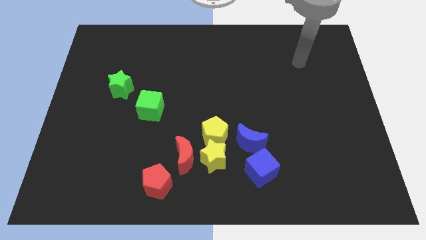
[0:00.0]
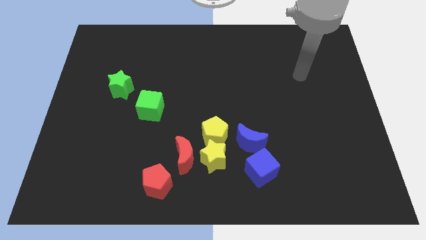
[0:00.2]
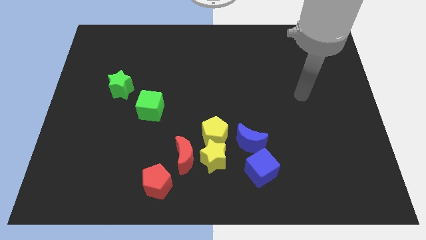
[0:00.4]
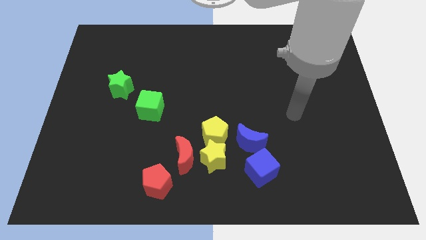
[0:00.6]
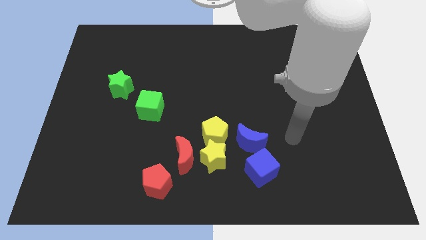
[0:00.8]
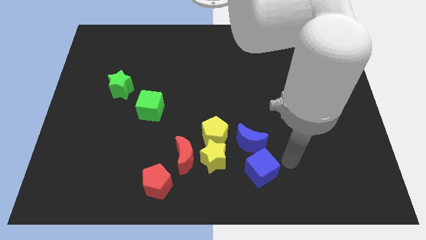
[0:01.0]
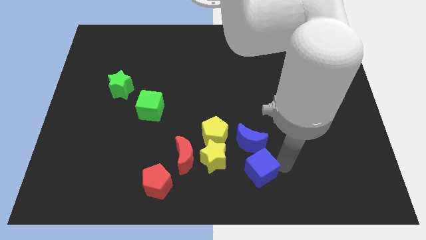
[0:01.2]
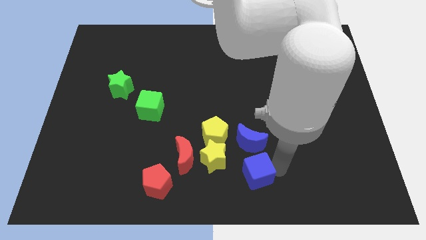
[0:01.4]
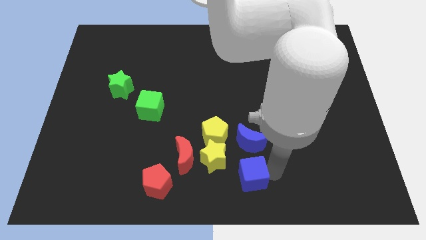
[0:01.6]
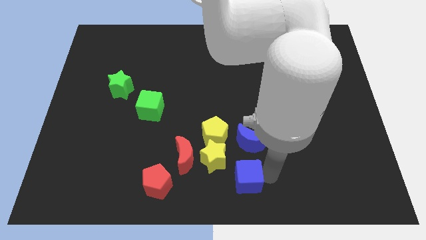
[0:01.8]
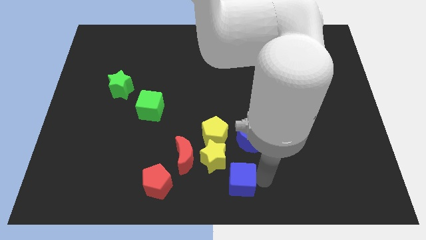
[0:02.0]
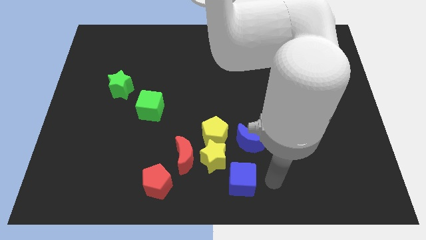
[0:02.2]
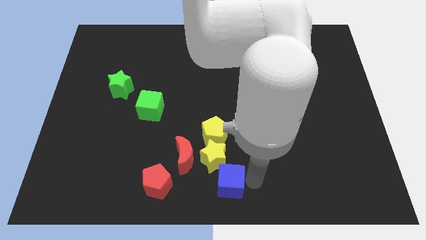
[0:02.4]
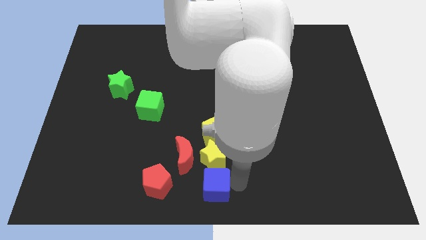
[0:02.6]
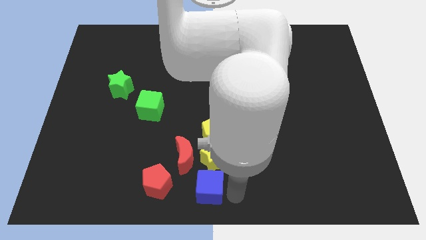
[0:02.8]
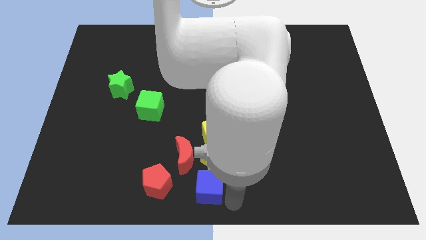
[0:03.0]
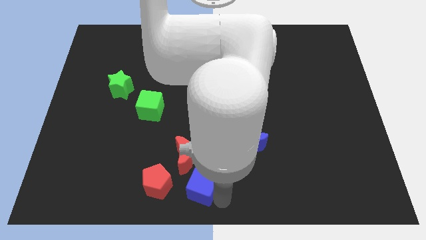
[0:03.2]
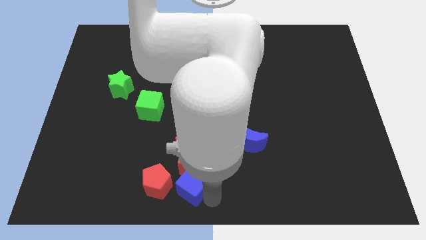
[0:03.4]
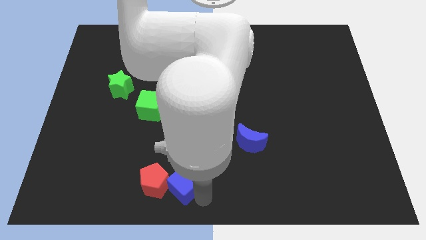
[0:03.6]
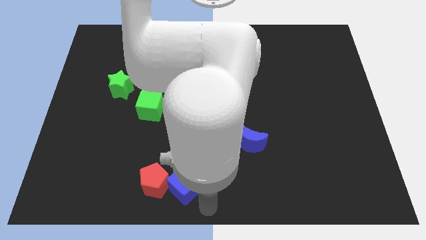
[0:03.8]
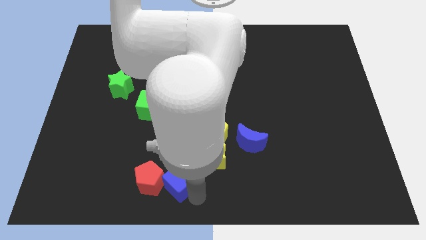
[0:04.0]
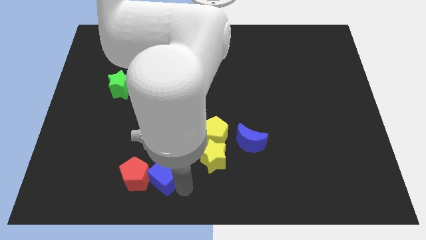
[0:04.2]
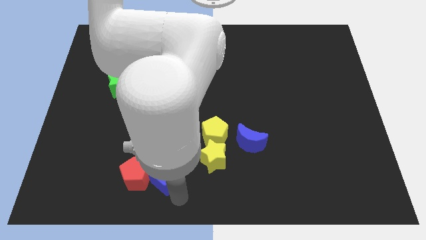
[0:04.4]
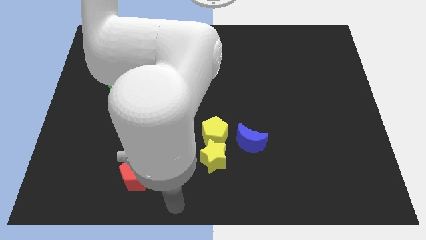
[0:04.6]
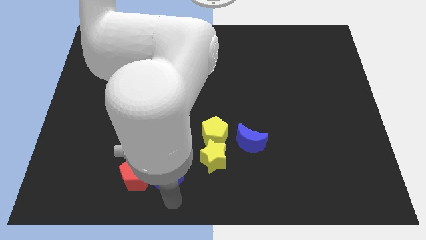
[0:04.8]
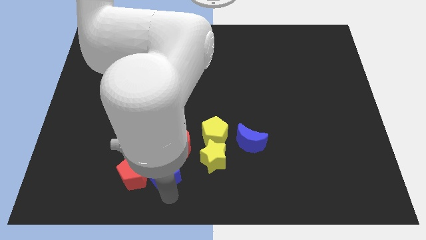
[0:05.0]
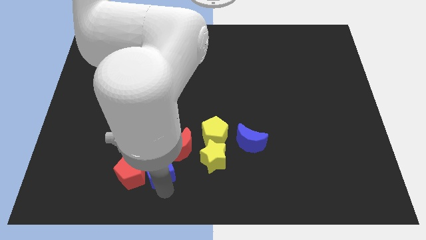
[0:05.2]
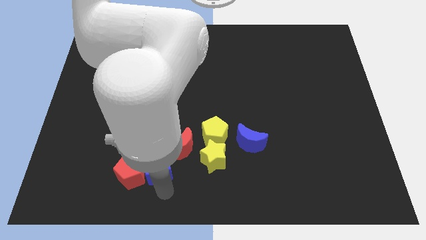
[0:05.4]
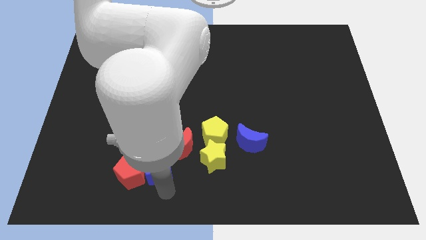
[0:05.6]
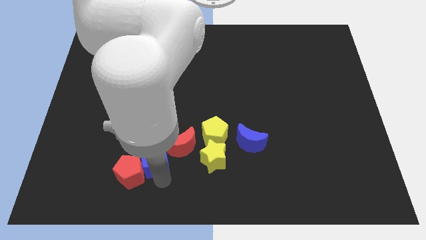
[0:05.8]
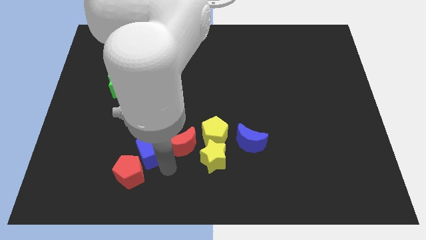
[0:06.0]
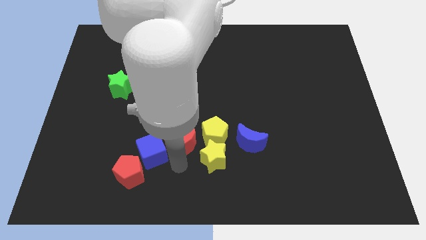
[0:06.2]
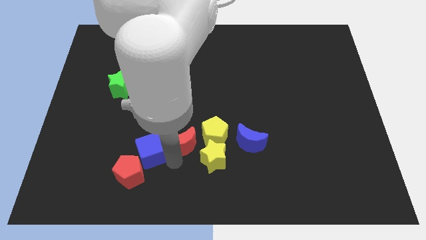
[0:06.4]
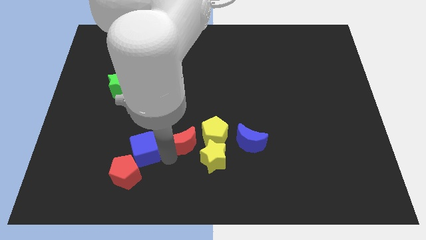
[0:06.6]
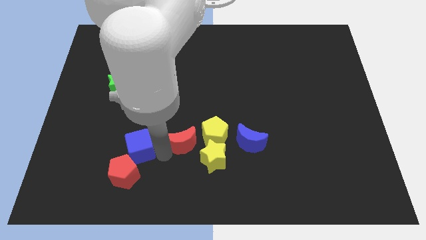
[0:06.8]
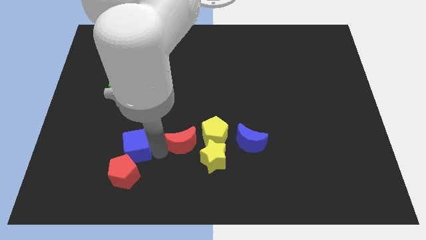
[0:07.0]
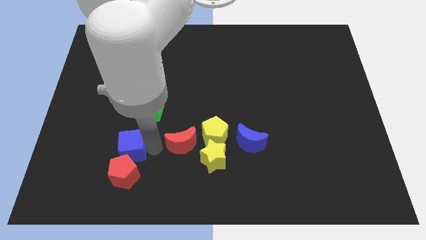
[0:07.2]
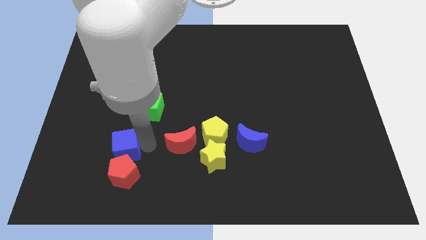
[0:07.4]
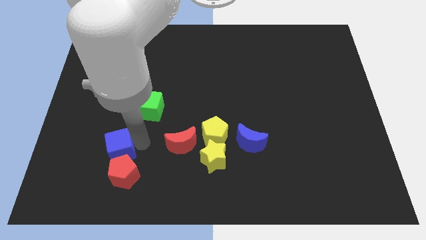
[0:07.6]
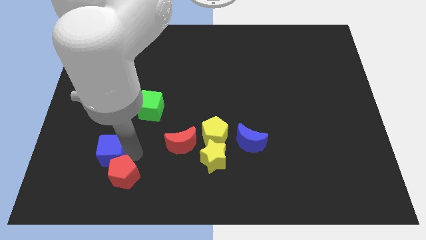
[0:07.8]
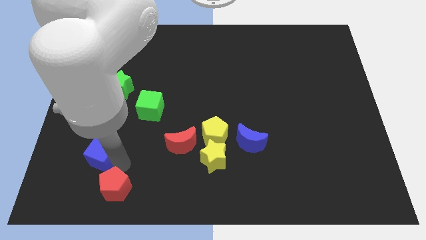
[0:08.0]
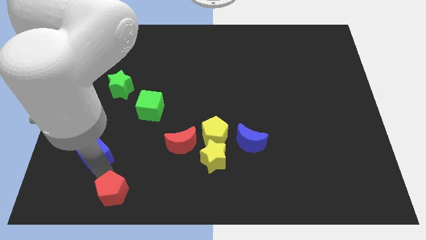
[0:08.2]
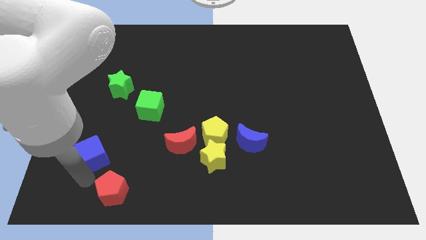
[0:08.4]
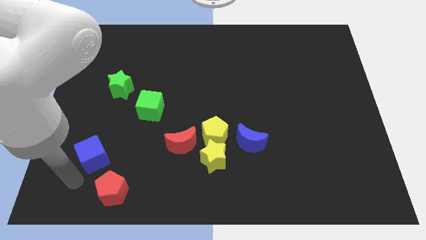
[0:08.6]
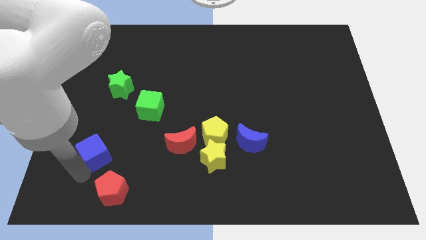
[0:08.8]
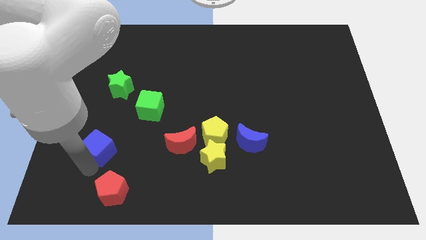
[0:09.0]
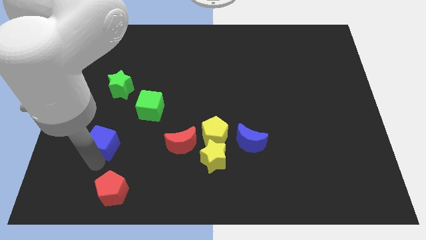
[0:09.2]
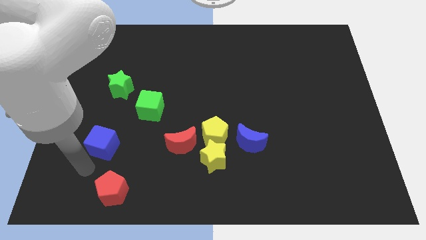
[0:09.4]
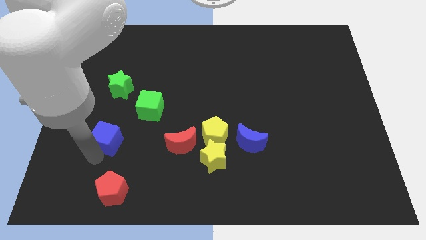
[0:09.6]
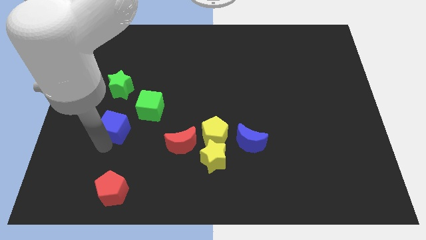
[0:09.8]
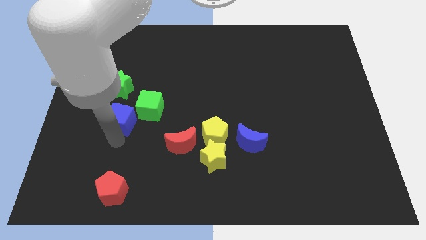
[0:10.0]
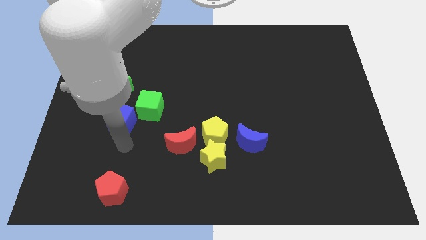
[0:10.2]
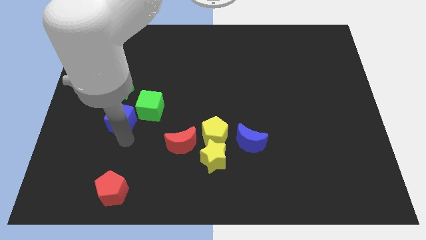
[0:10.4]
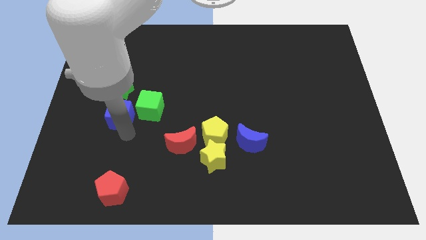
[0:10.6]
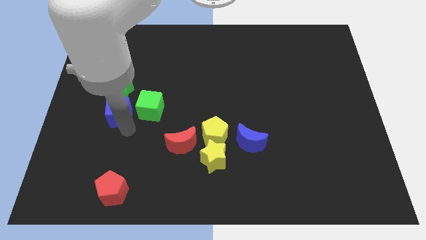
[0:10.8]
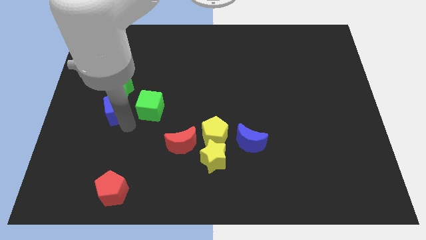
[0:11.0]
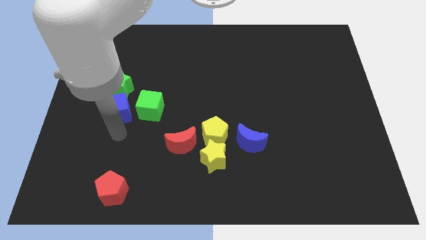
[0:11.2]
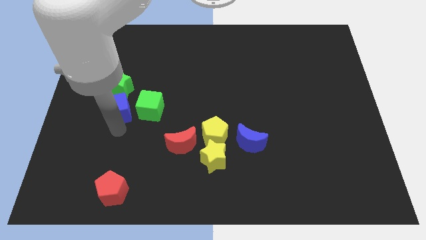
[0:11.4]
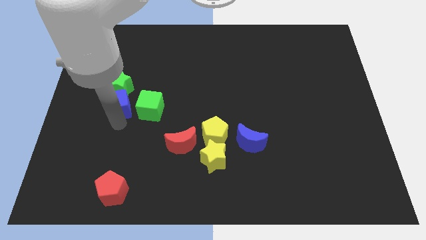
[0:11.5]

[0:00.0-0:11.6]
slide the blue cube close to the green star

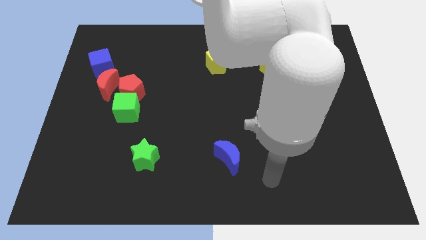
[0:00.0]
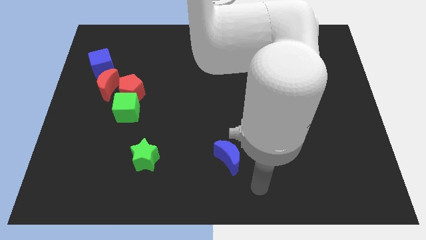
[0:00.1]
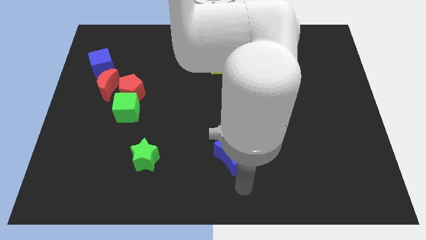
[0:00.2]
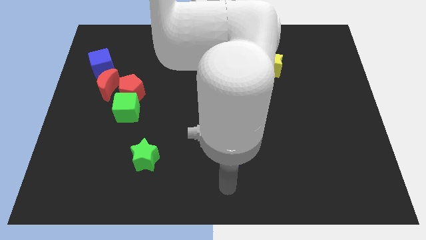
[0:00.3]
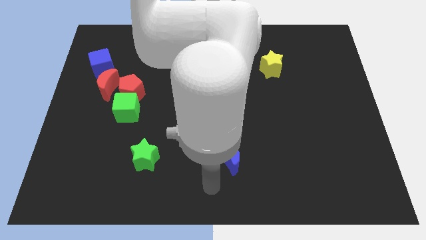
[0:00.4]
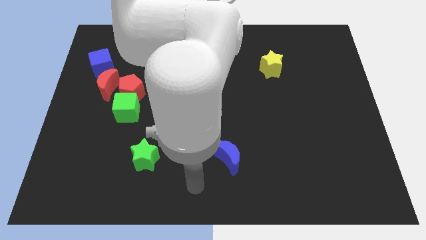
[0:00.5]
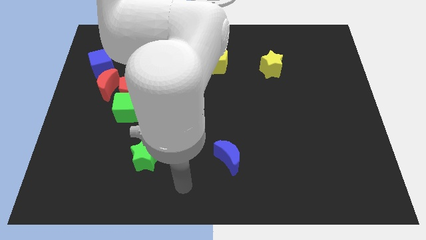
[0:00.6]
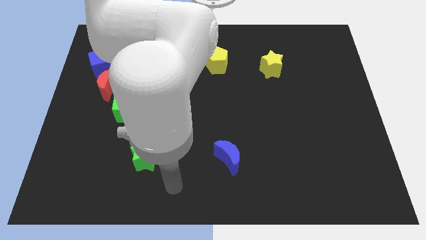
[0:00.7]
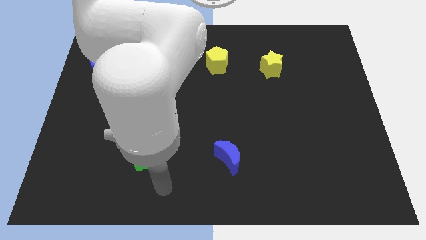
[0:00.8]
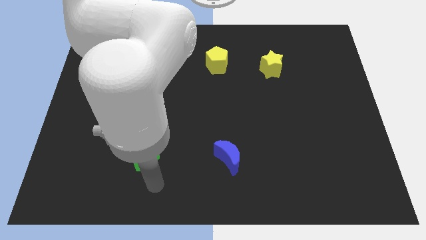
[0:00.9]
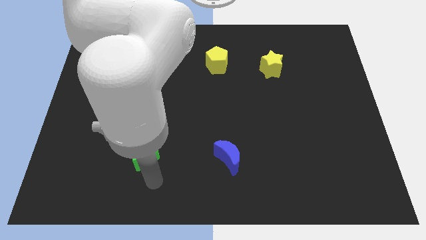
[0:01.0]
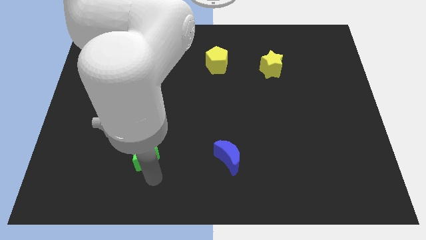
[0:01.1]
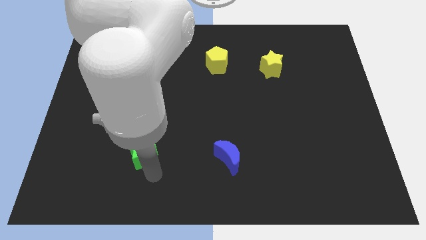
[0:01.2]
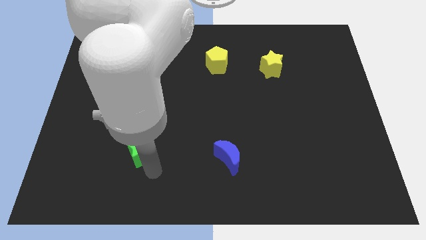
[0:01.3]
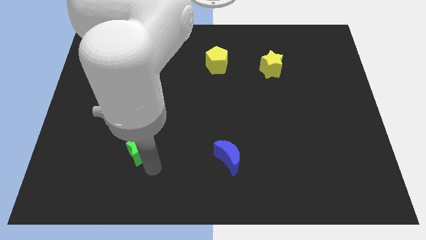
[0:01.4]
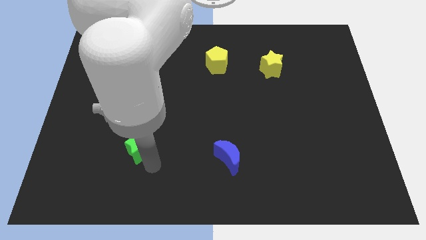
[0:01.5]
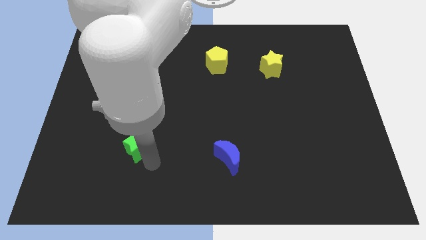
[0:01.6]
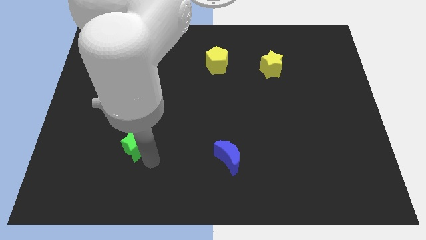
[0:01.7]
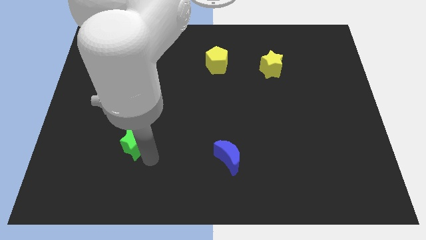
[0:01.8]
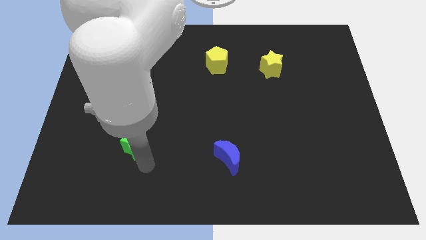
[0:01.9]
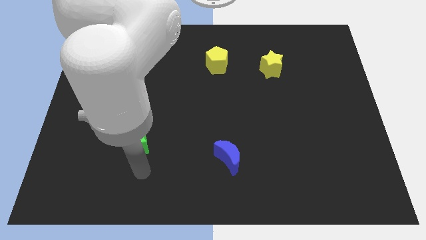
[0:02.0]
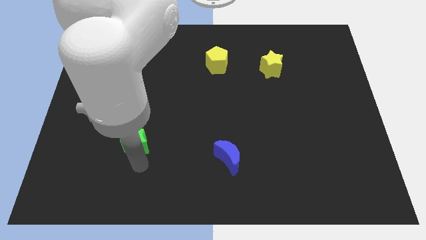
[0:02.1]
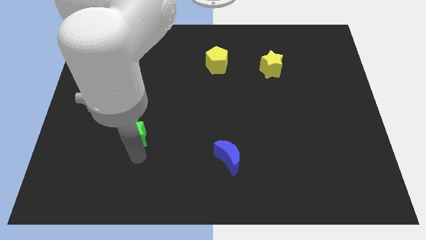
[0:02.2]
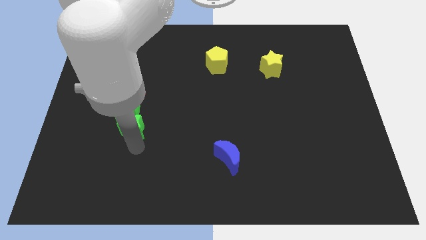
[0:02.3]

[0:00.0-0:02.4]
push the green star towards the green cube
